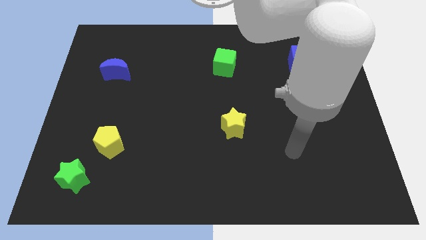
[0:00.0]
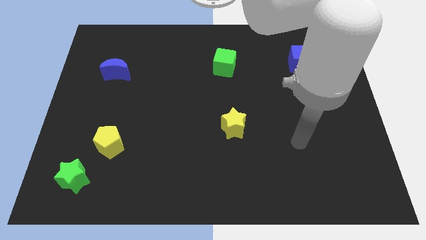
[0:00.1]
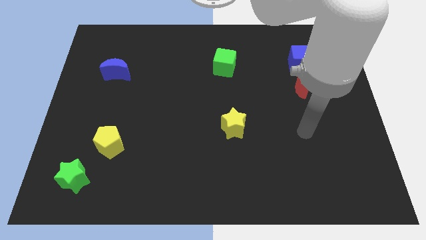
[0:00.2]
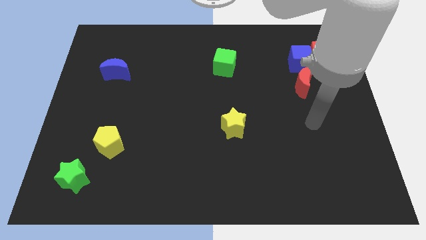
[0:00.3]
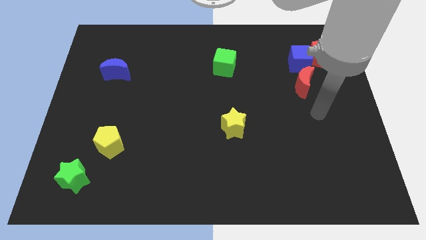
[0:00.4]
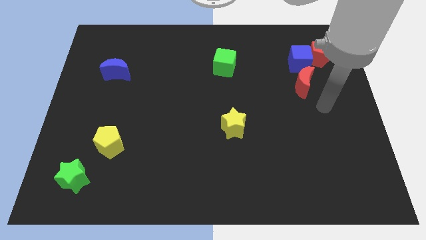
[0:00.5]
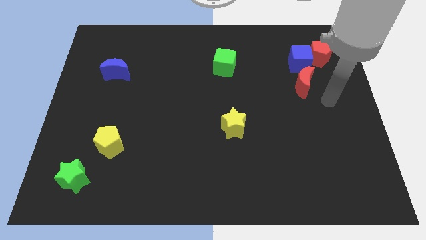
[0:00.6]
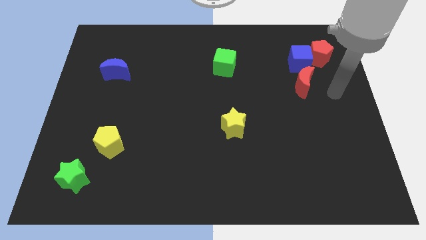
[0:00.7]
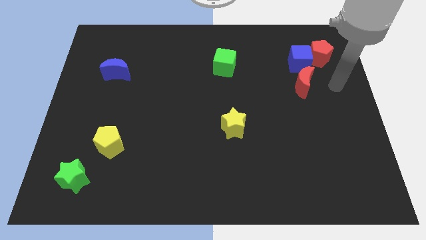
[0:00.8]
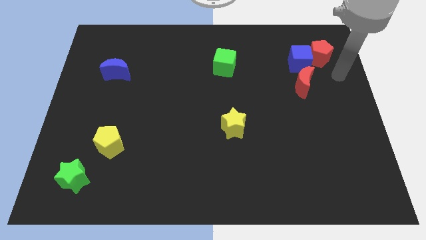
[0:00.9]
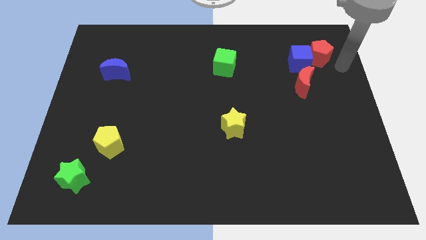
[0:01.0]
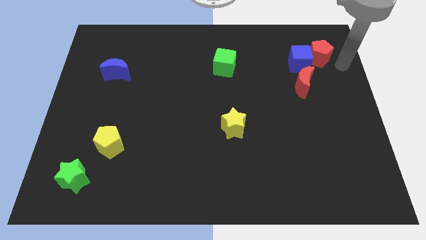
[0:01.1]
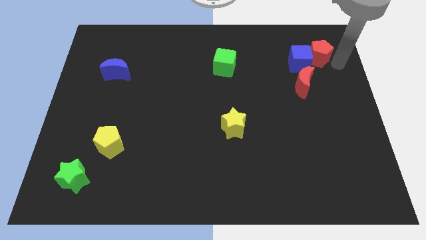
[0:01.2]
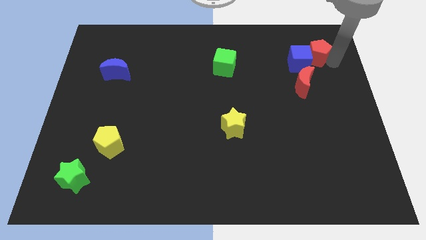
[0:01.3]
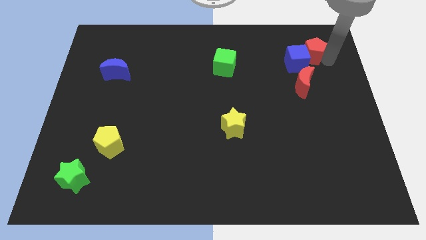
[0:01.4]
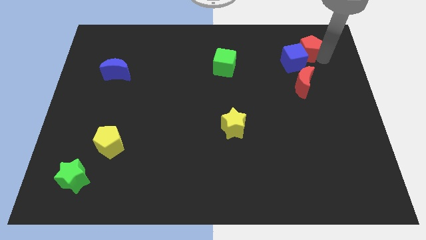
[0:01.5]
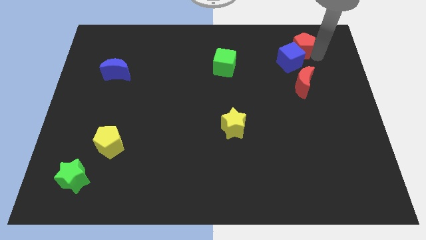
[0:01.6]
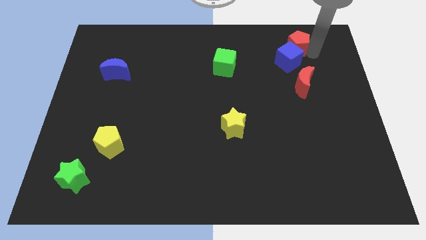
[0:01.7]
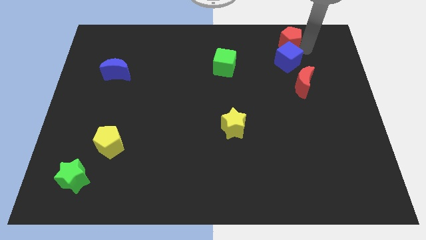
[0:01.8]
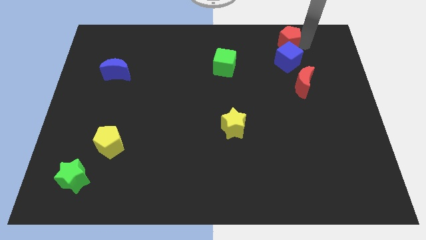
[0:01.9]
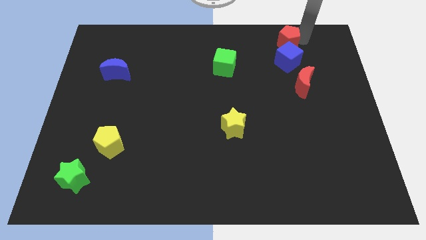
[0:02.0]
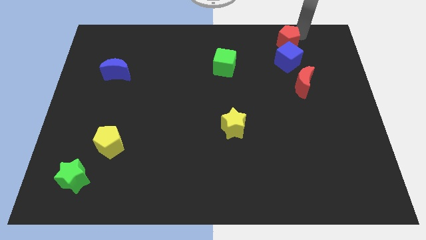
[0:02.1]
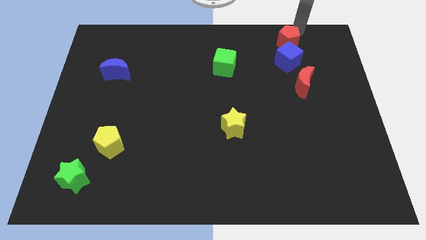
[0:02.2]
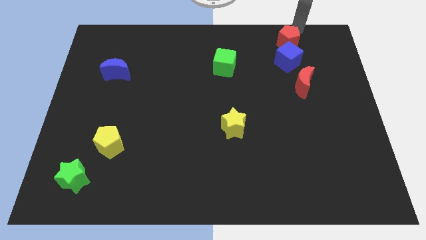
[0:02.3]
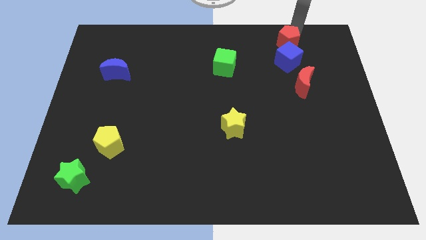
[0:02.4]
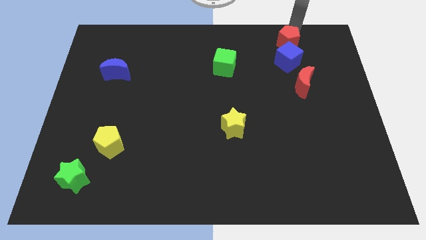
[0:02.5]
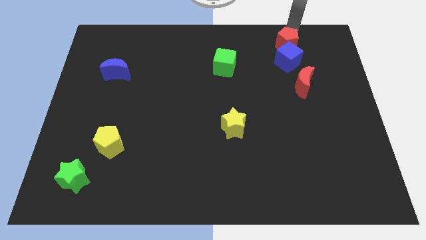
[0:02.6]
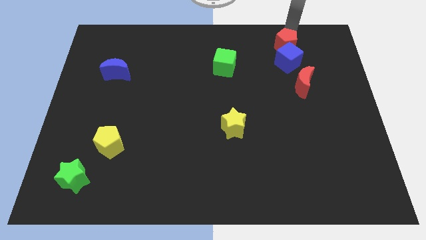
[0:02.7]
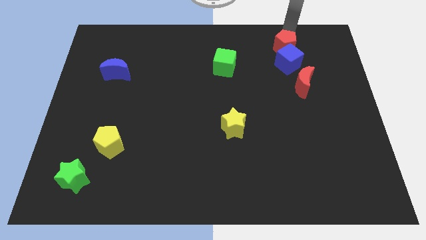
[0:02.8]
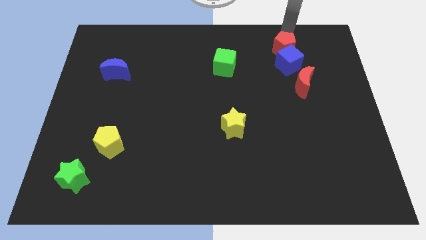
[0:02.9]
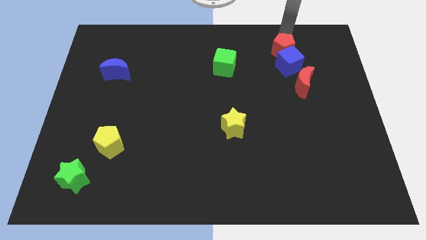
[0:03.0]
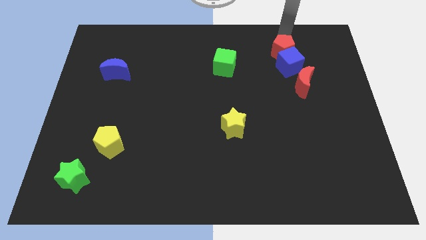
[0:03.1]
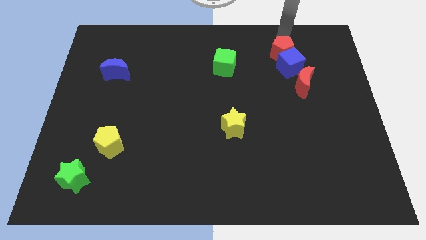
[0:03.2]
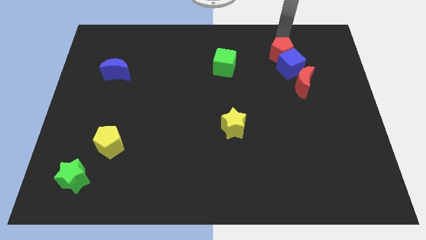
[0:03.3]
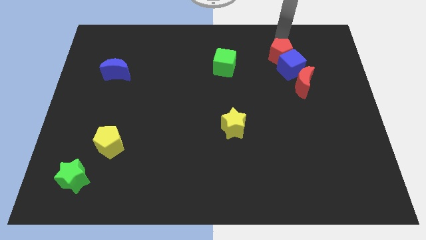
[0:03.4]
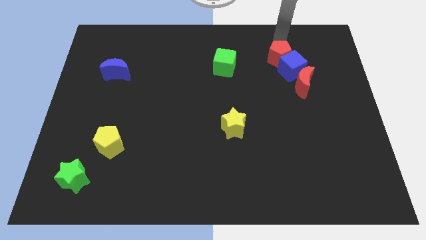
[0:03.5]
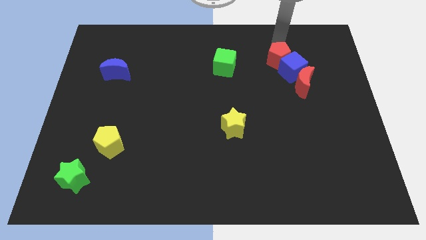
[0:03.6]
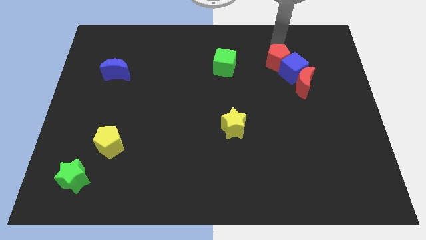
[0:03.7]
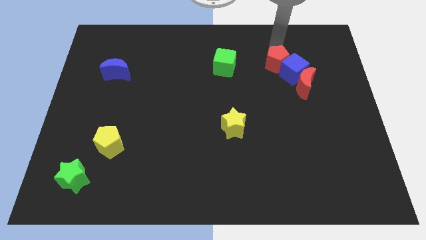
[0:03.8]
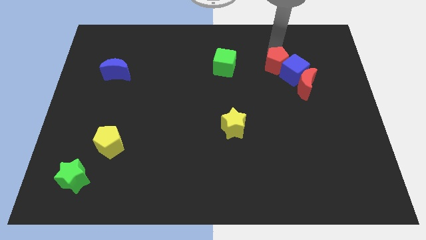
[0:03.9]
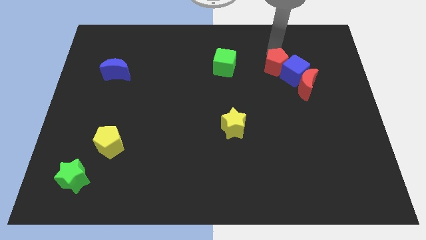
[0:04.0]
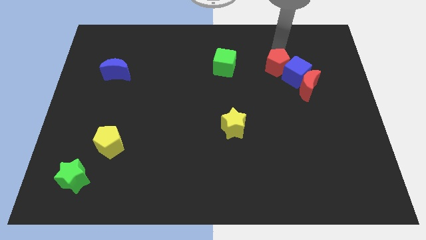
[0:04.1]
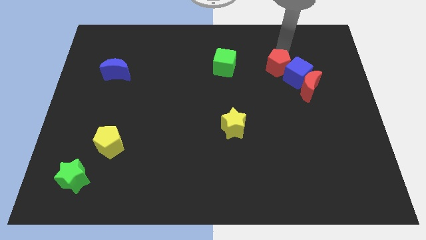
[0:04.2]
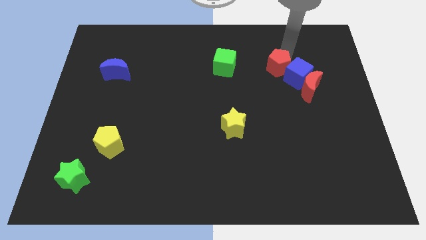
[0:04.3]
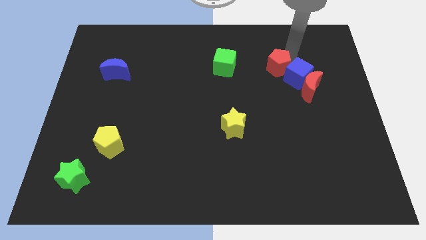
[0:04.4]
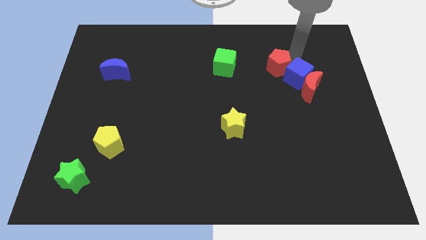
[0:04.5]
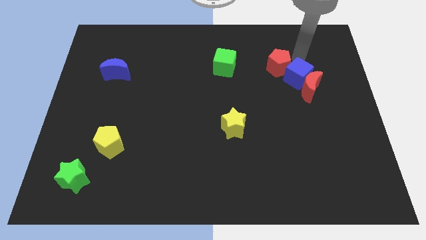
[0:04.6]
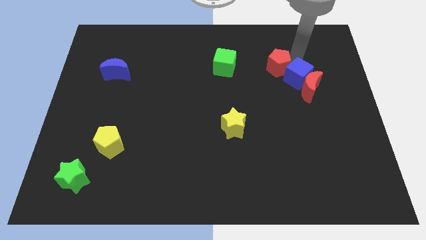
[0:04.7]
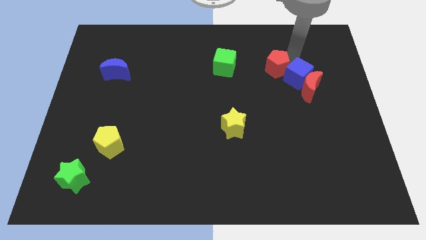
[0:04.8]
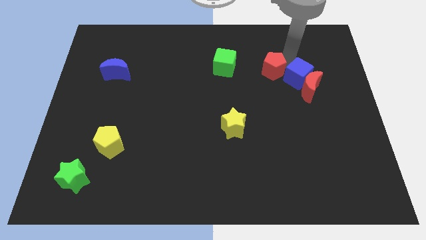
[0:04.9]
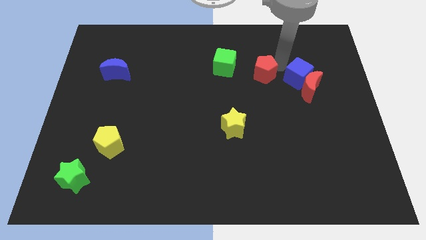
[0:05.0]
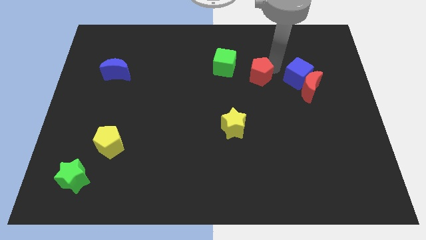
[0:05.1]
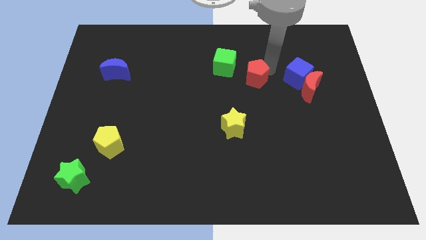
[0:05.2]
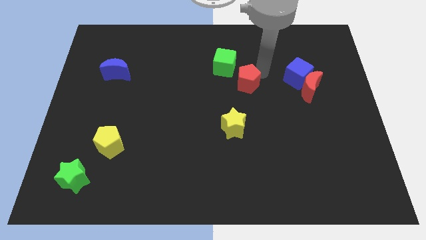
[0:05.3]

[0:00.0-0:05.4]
push the red pentagon to the middle

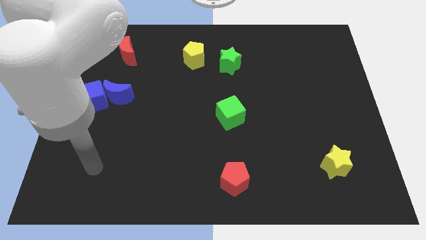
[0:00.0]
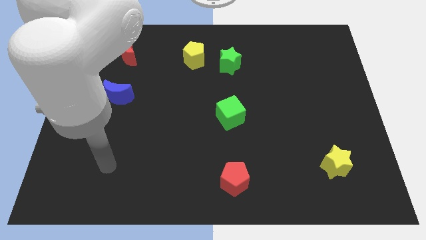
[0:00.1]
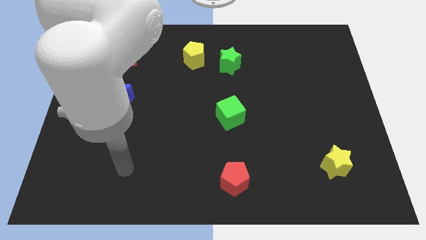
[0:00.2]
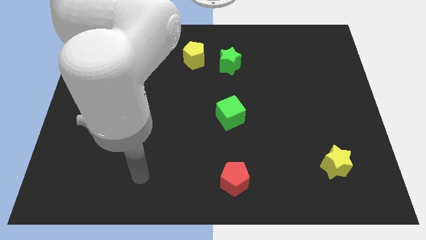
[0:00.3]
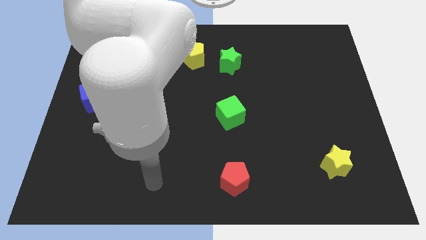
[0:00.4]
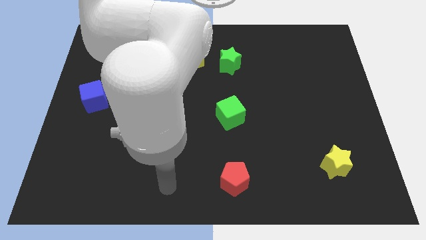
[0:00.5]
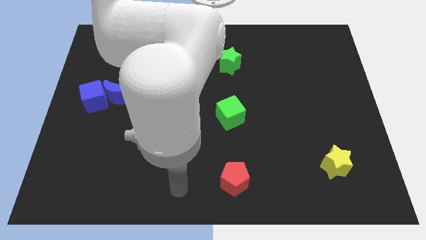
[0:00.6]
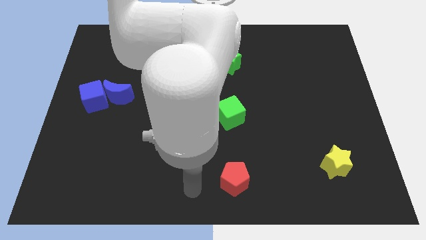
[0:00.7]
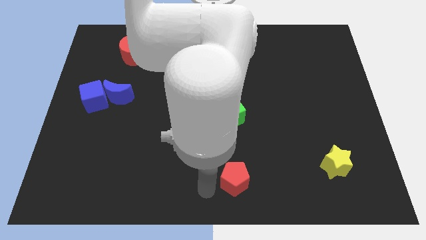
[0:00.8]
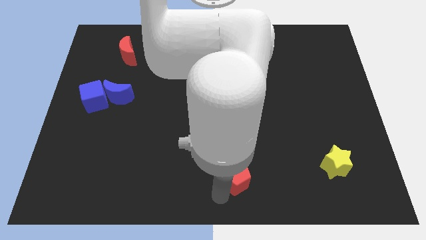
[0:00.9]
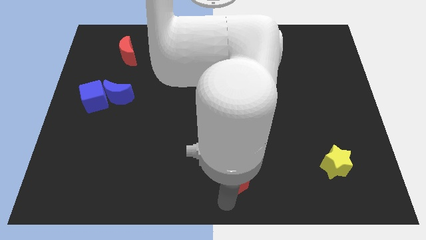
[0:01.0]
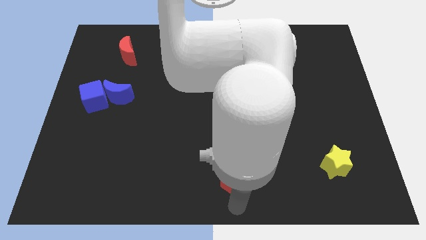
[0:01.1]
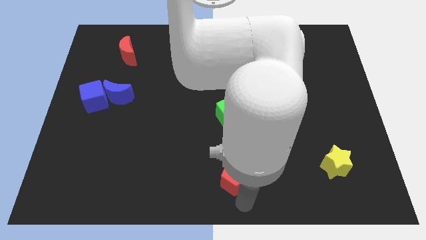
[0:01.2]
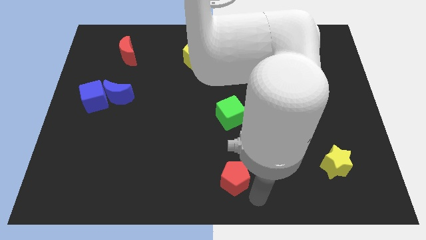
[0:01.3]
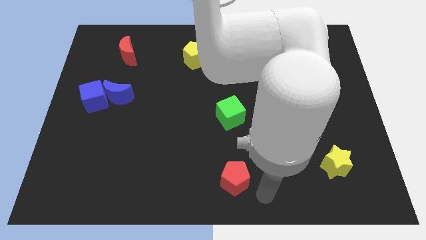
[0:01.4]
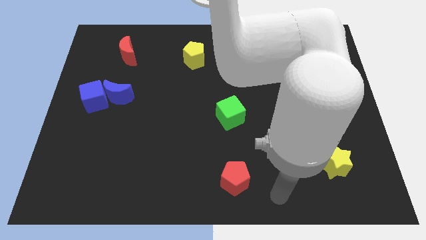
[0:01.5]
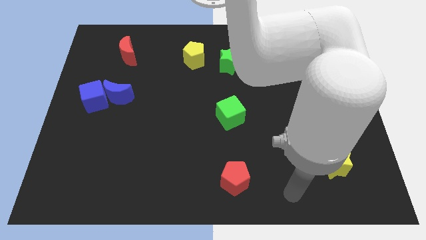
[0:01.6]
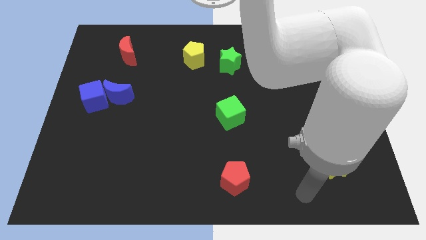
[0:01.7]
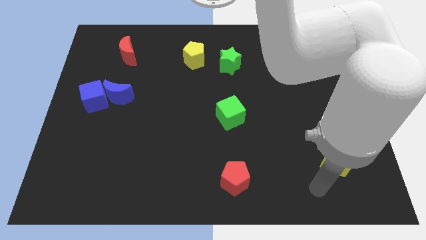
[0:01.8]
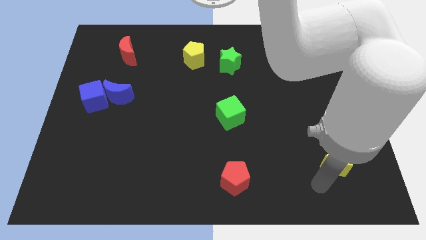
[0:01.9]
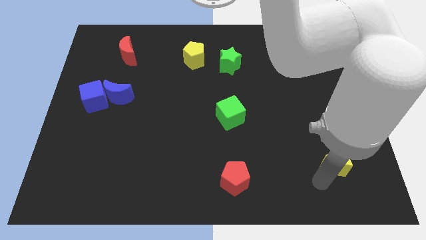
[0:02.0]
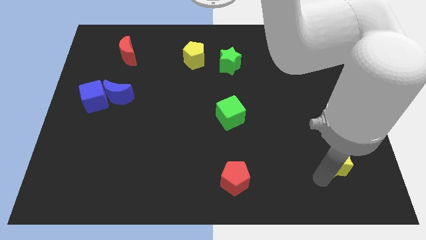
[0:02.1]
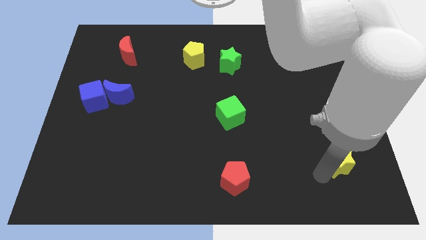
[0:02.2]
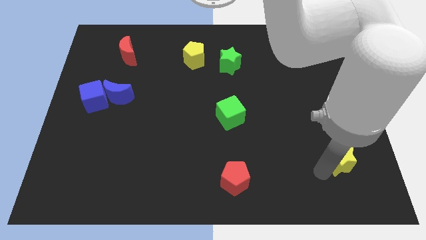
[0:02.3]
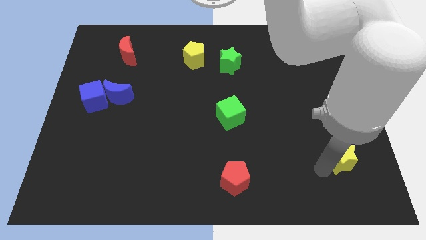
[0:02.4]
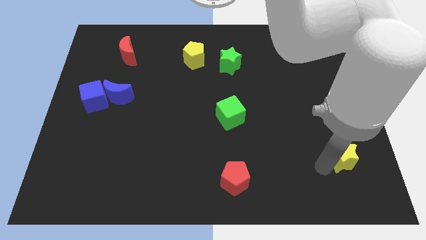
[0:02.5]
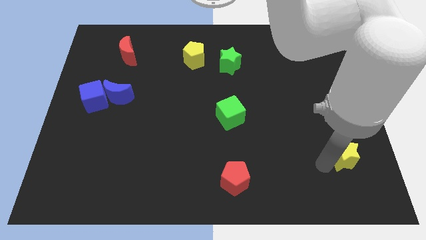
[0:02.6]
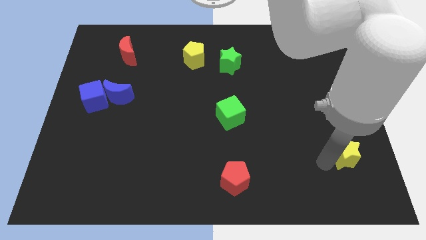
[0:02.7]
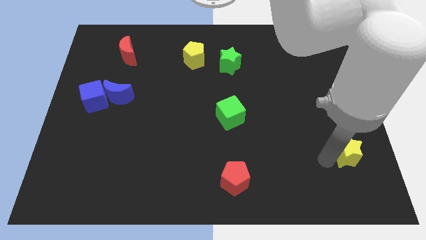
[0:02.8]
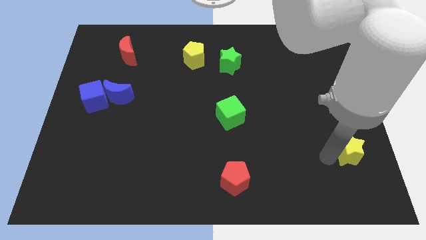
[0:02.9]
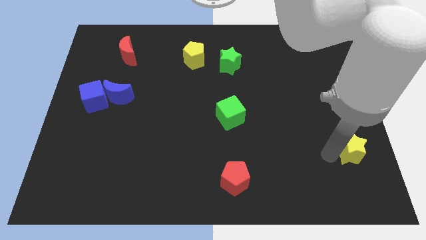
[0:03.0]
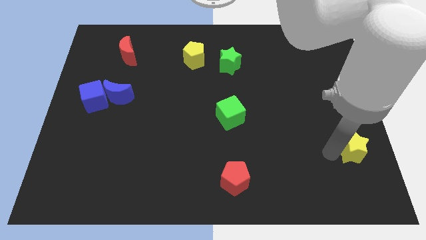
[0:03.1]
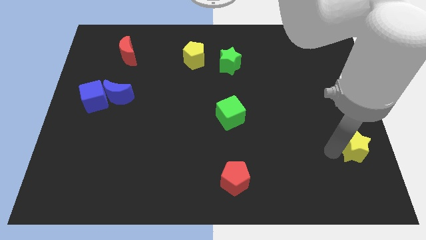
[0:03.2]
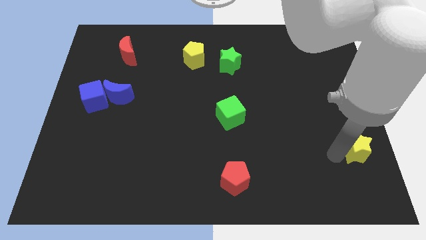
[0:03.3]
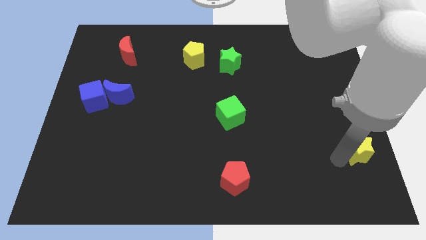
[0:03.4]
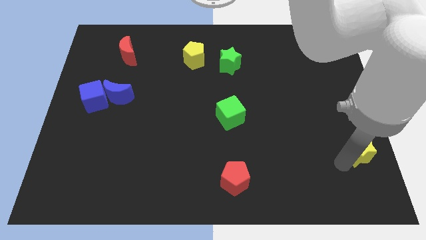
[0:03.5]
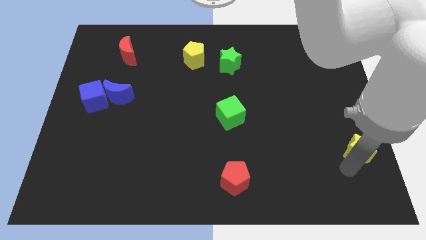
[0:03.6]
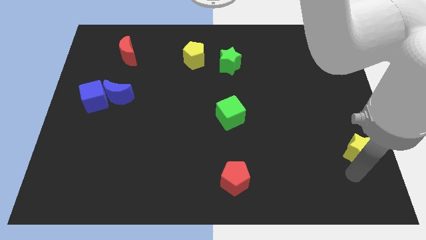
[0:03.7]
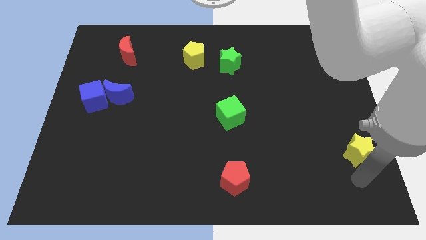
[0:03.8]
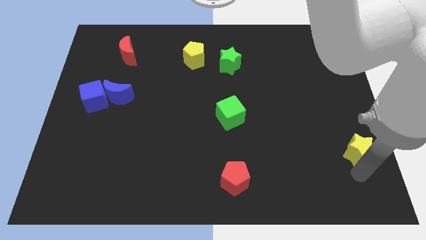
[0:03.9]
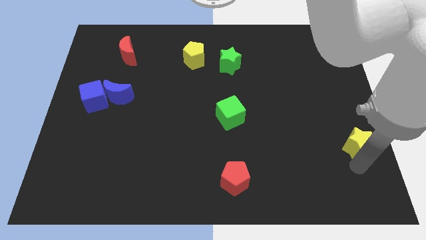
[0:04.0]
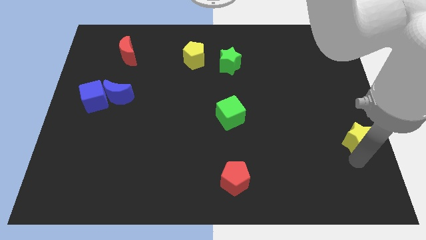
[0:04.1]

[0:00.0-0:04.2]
move the yellow star to the center right
